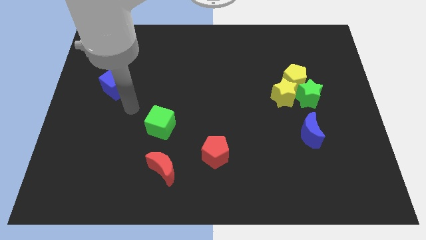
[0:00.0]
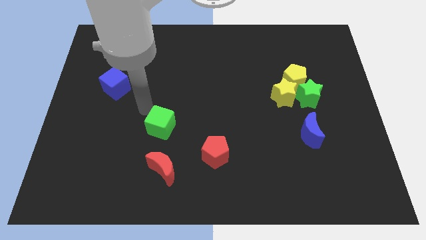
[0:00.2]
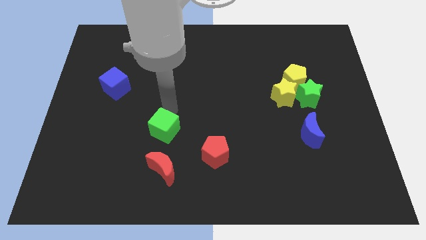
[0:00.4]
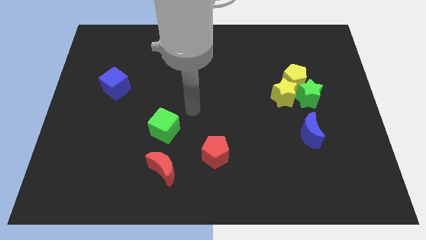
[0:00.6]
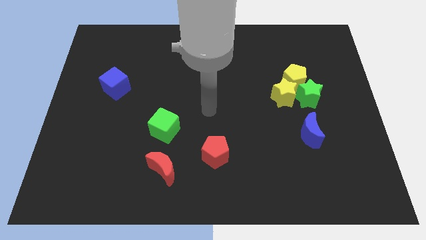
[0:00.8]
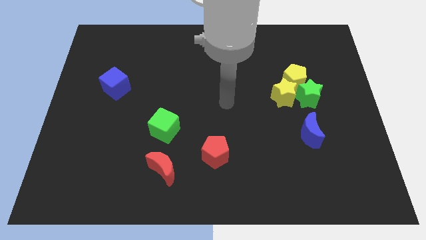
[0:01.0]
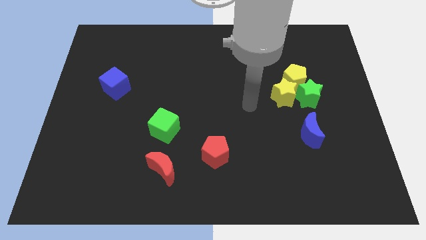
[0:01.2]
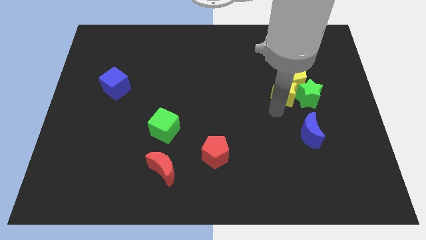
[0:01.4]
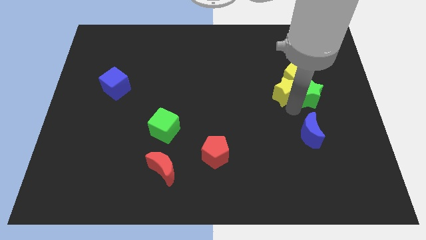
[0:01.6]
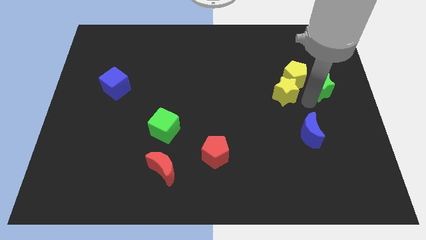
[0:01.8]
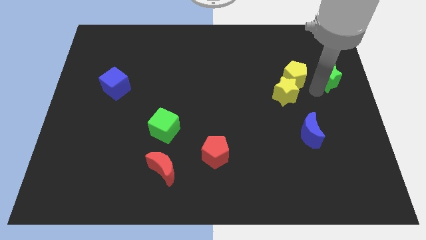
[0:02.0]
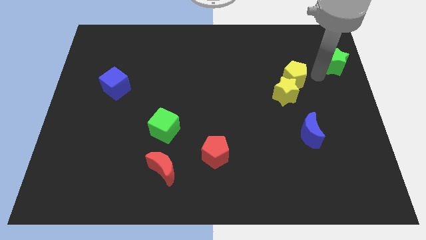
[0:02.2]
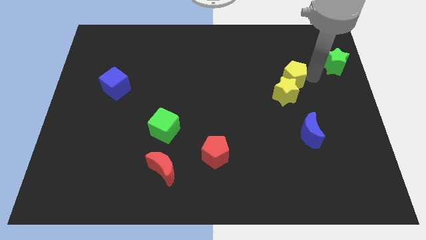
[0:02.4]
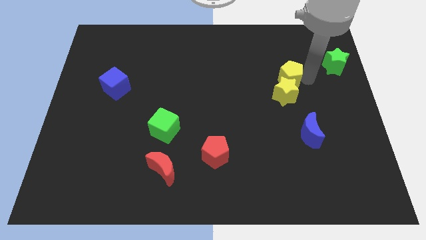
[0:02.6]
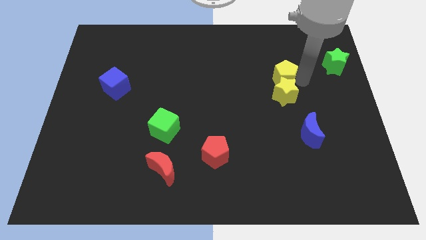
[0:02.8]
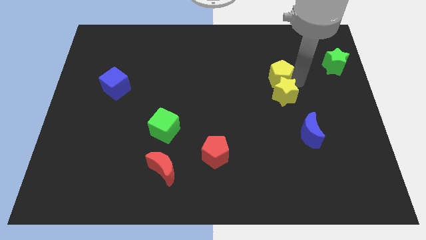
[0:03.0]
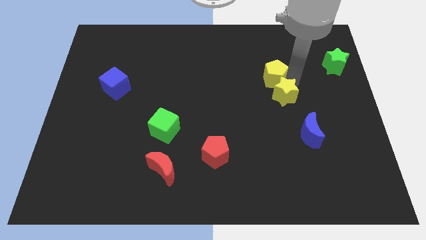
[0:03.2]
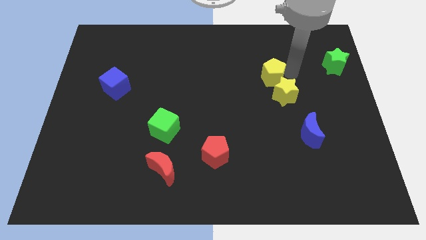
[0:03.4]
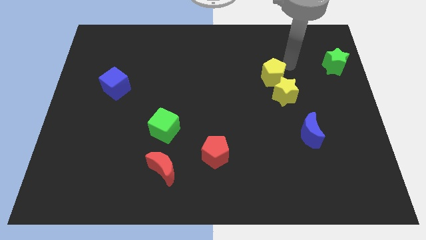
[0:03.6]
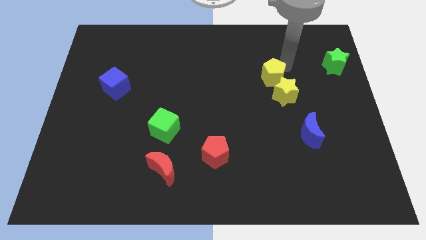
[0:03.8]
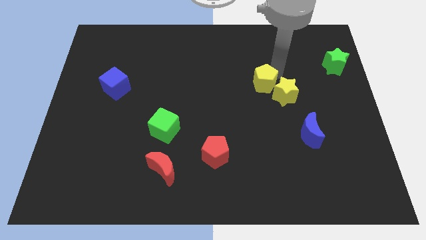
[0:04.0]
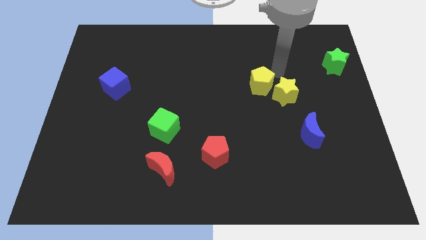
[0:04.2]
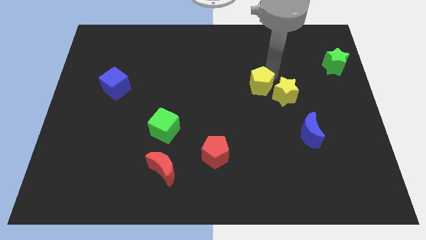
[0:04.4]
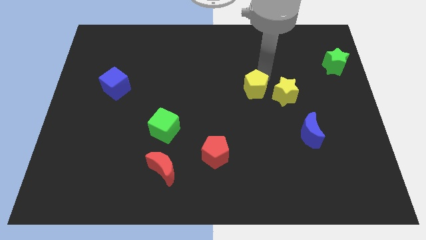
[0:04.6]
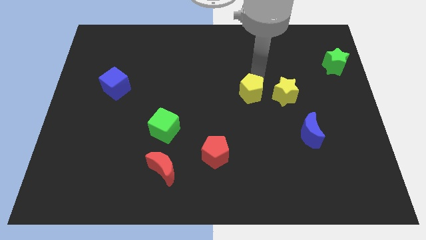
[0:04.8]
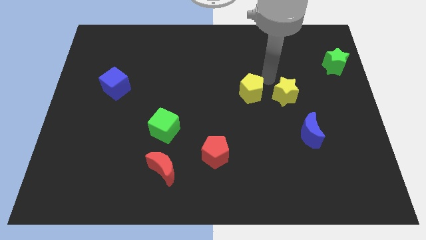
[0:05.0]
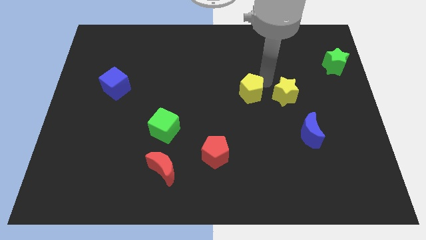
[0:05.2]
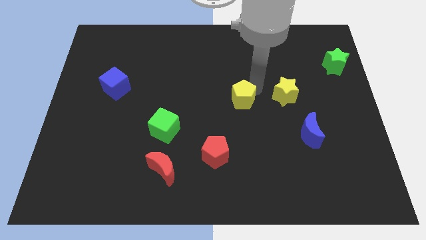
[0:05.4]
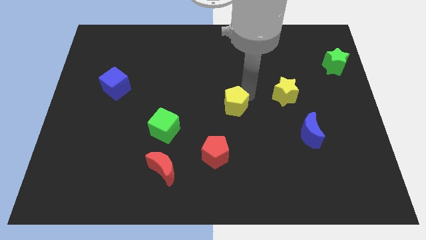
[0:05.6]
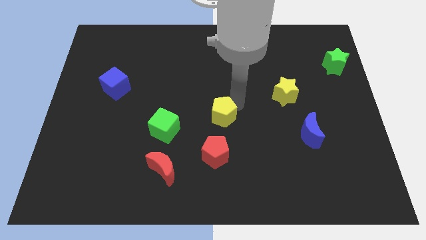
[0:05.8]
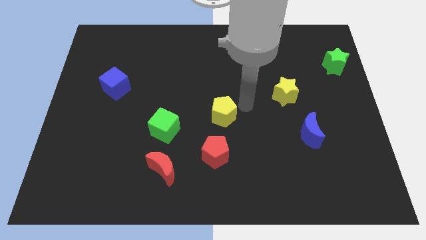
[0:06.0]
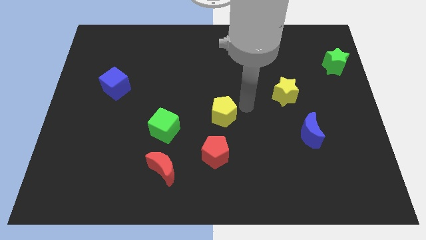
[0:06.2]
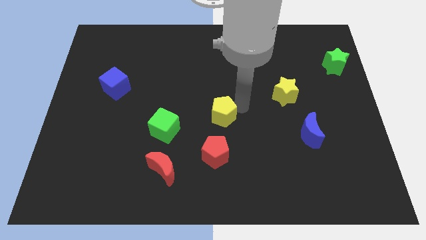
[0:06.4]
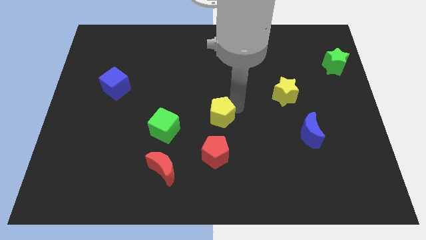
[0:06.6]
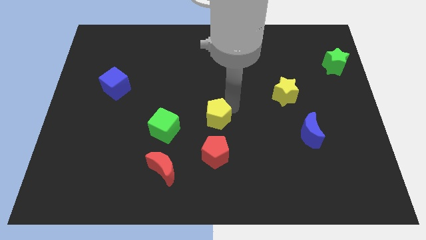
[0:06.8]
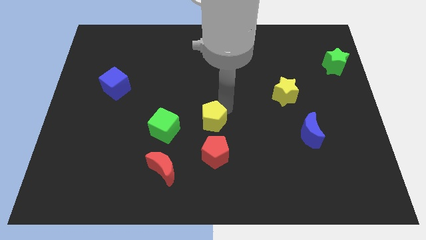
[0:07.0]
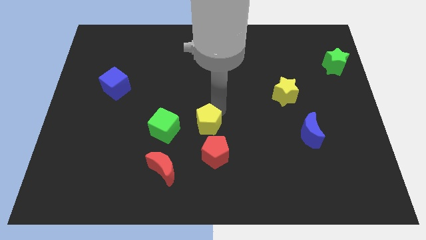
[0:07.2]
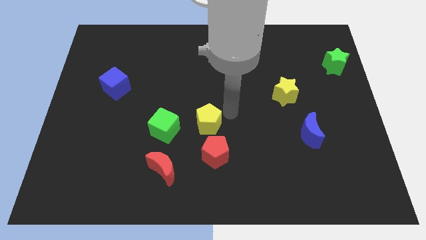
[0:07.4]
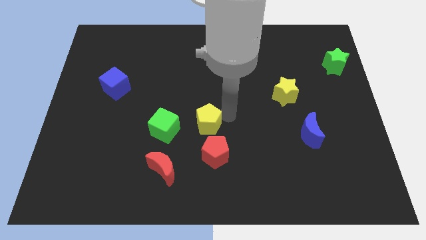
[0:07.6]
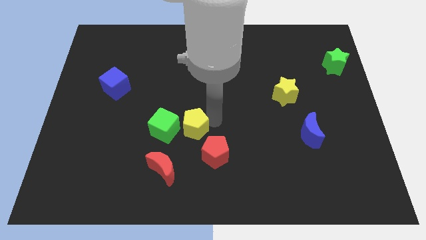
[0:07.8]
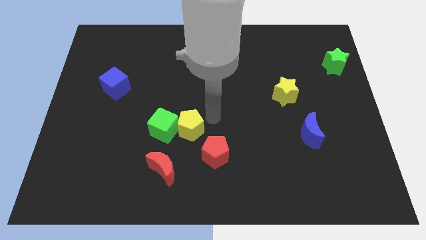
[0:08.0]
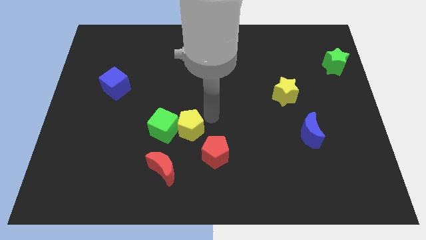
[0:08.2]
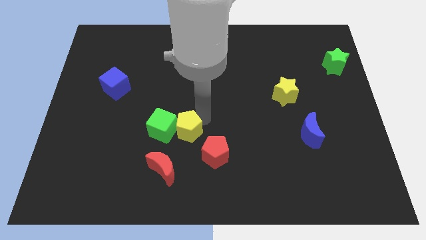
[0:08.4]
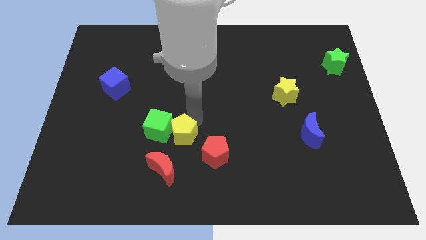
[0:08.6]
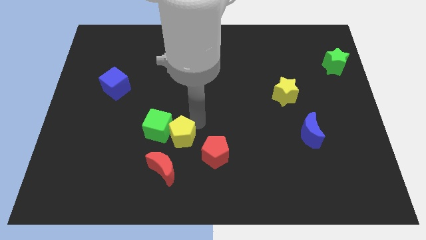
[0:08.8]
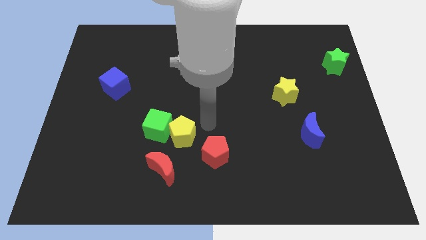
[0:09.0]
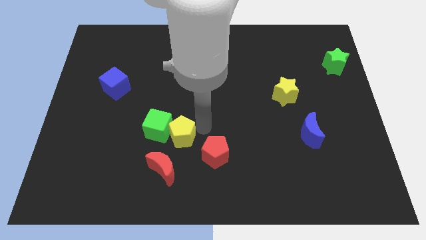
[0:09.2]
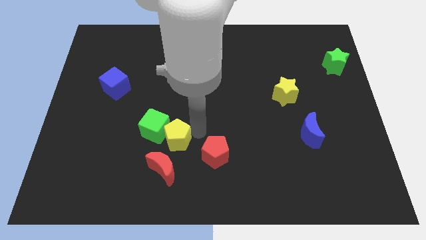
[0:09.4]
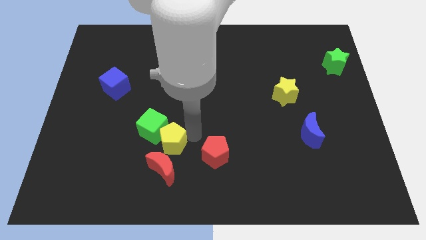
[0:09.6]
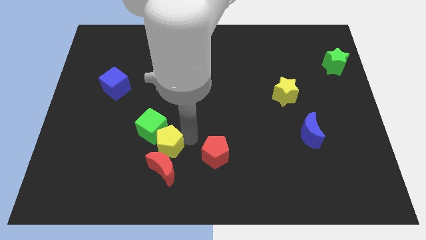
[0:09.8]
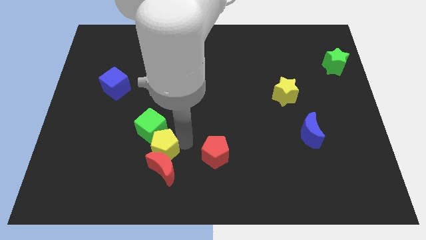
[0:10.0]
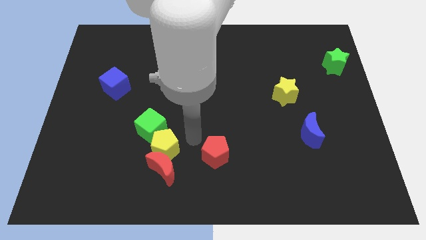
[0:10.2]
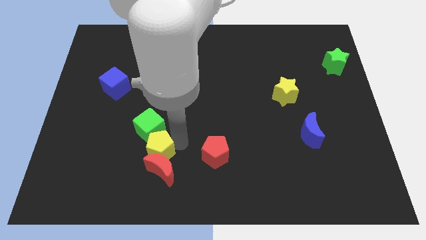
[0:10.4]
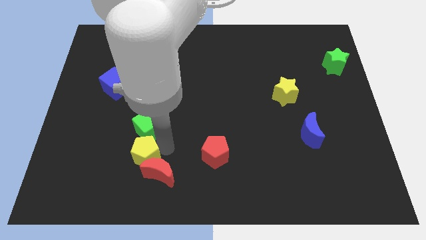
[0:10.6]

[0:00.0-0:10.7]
move the yellow pentagon just left of the red moon

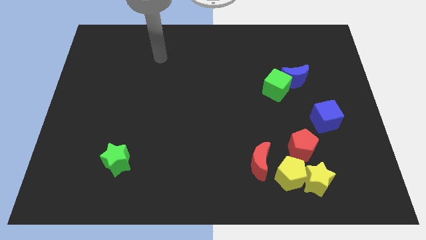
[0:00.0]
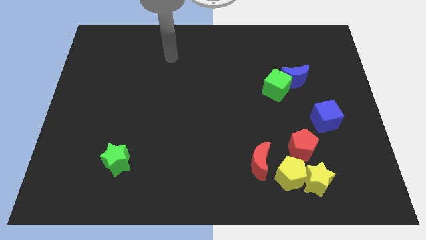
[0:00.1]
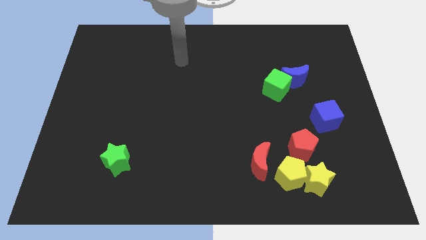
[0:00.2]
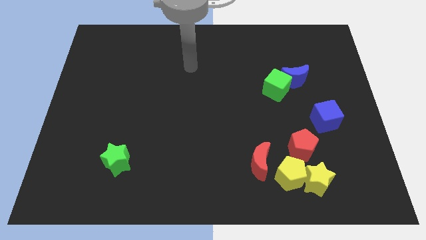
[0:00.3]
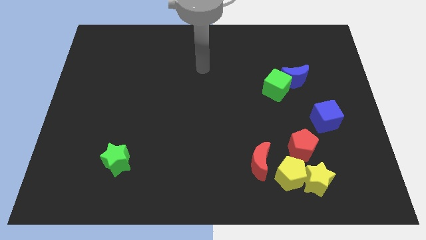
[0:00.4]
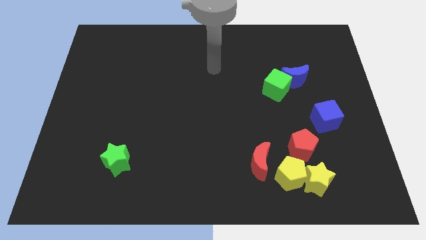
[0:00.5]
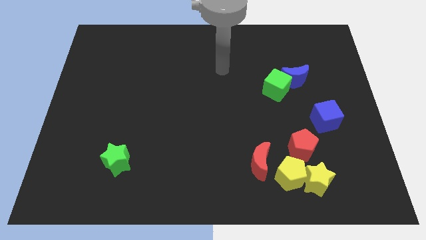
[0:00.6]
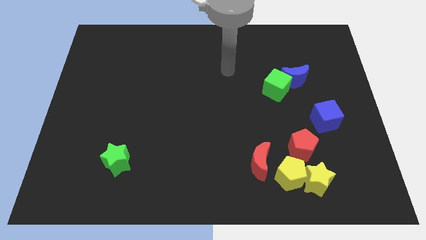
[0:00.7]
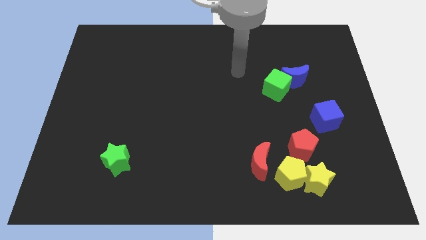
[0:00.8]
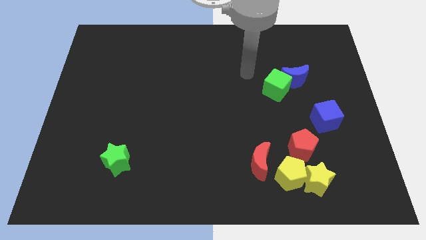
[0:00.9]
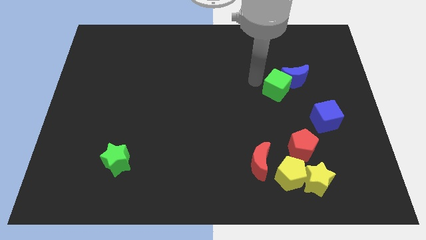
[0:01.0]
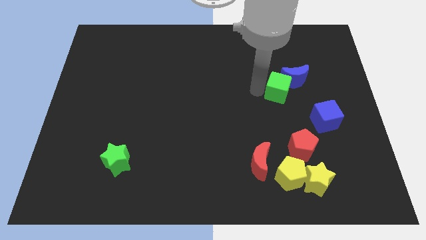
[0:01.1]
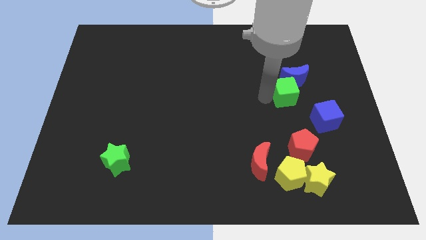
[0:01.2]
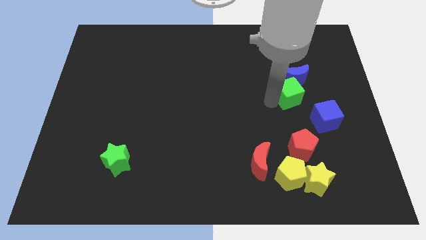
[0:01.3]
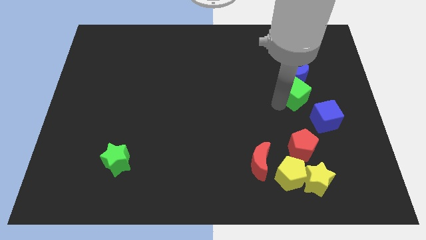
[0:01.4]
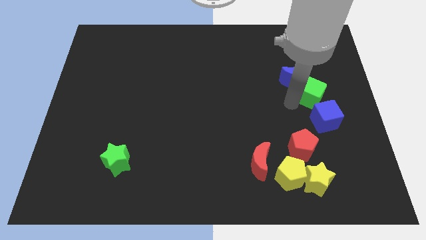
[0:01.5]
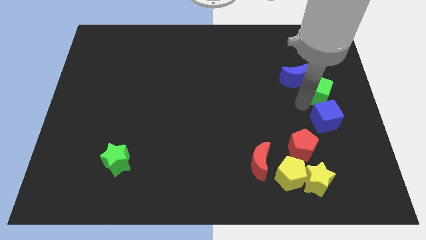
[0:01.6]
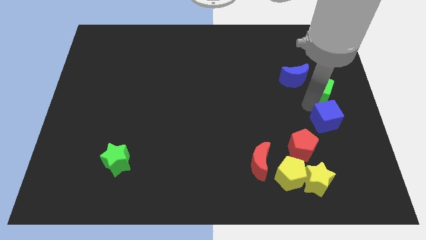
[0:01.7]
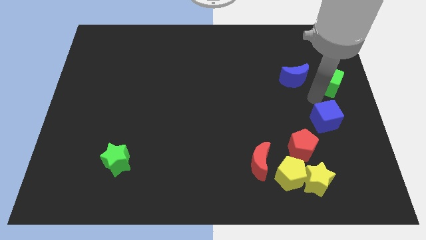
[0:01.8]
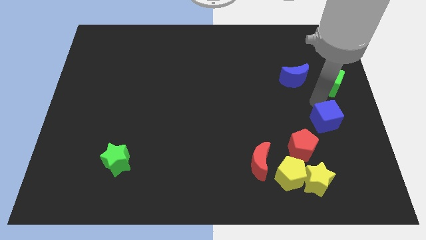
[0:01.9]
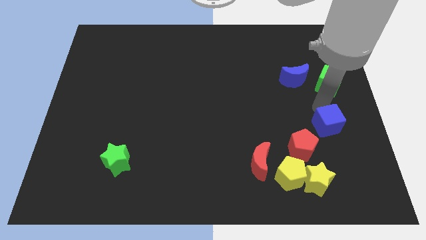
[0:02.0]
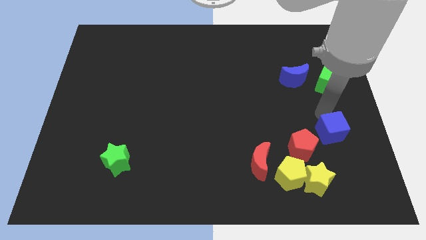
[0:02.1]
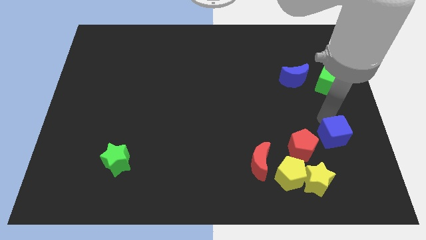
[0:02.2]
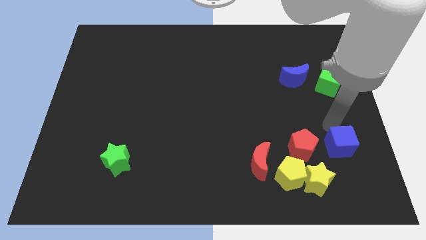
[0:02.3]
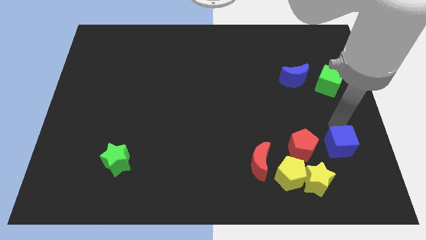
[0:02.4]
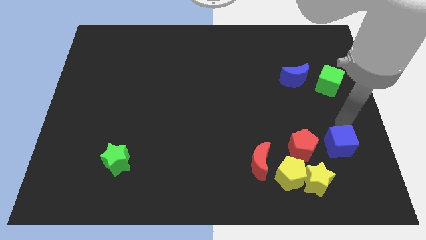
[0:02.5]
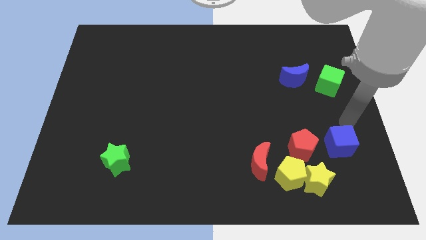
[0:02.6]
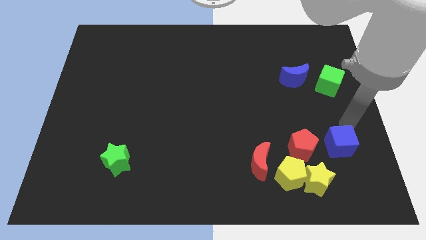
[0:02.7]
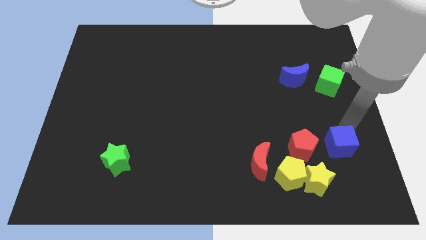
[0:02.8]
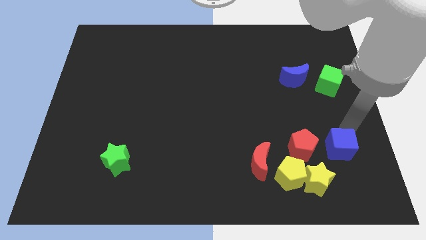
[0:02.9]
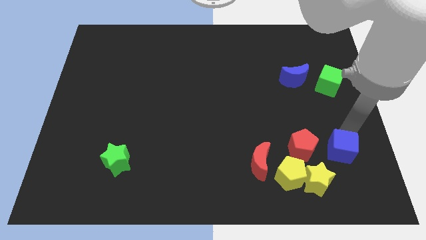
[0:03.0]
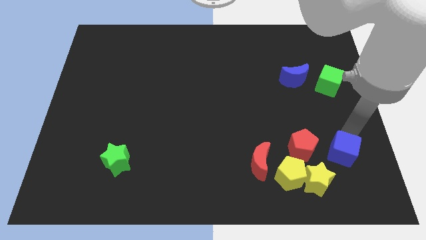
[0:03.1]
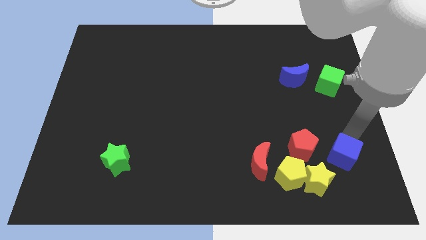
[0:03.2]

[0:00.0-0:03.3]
slide the blue cube to the bottom right of the red pentagon
